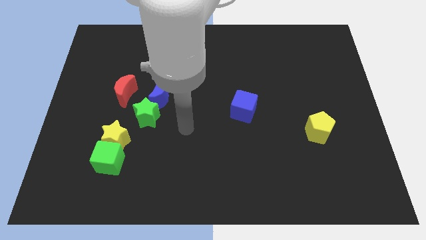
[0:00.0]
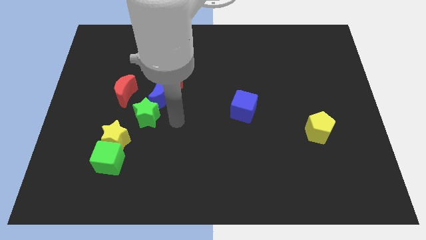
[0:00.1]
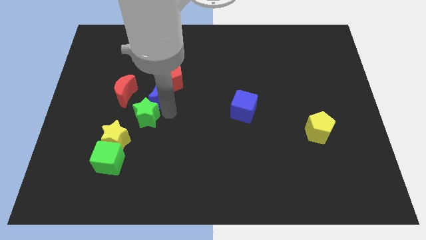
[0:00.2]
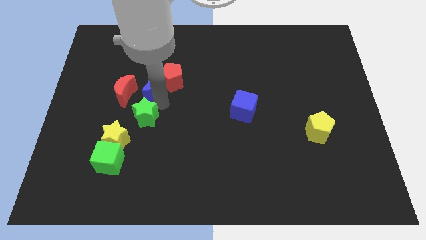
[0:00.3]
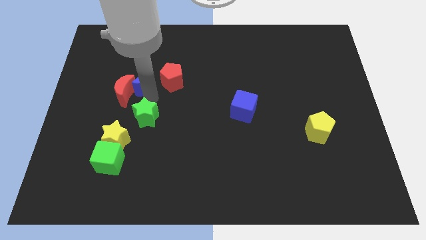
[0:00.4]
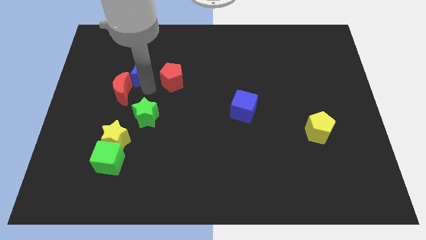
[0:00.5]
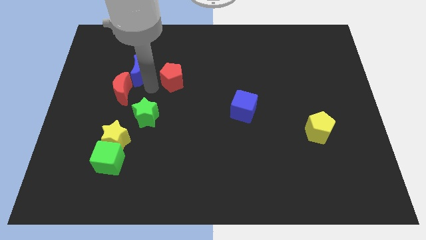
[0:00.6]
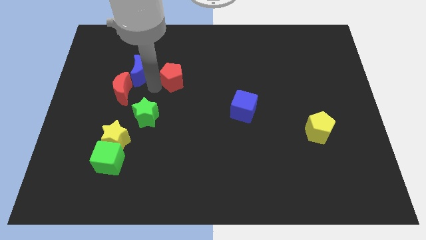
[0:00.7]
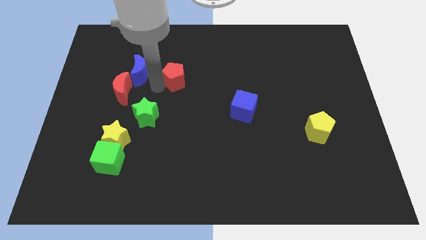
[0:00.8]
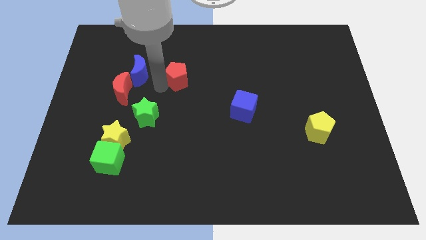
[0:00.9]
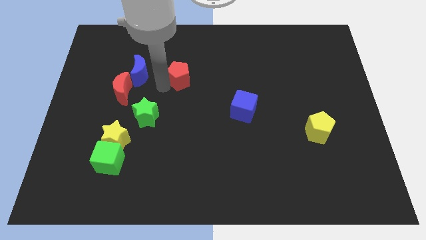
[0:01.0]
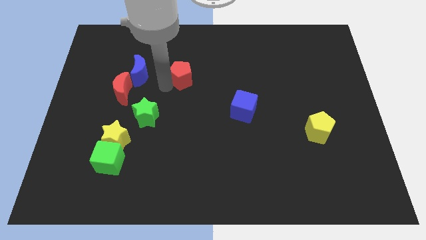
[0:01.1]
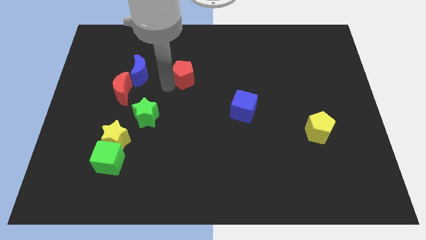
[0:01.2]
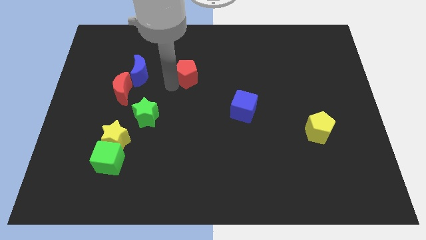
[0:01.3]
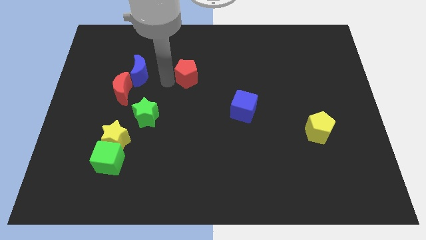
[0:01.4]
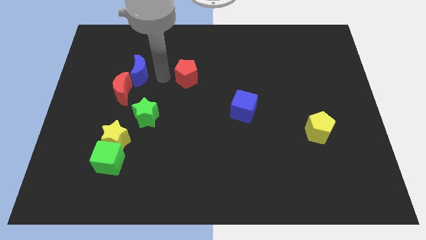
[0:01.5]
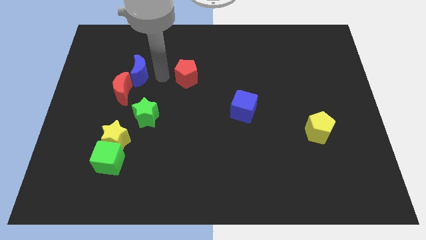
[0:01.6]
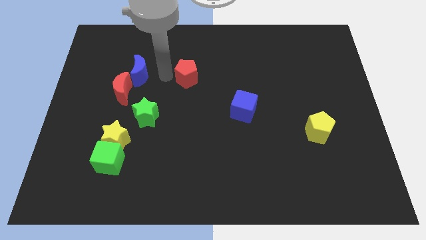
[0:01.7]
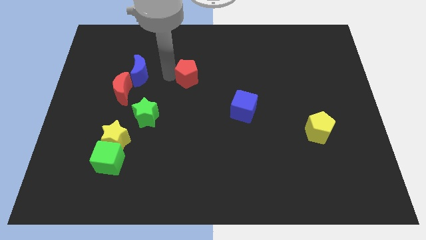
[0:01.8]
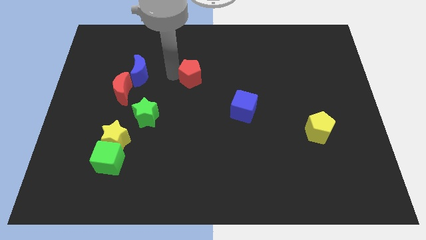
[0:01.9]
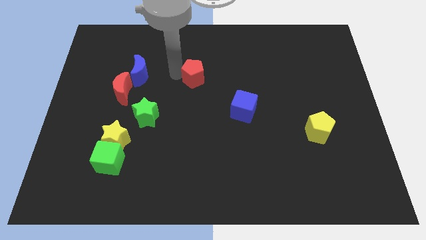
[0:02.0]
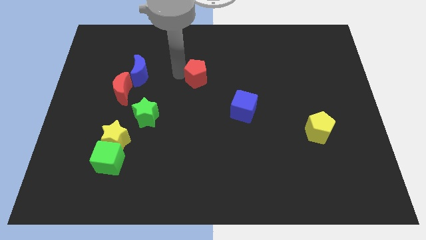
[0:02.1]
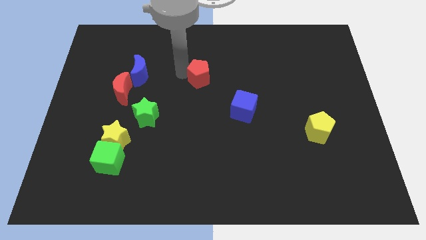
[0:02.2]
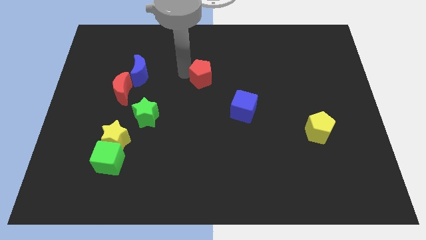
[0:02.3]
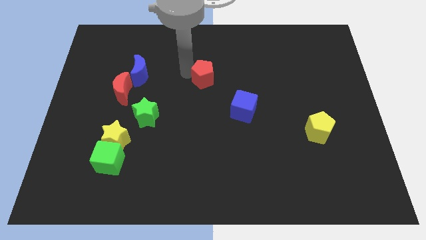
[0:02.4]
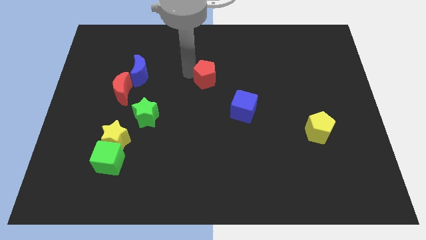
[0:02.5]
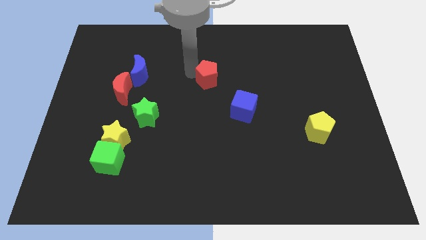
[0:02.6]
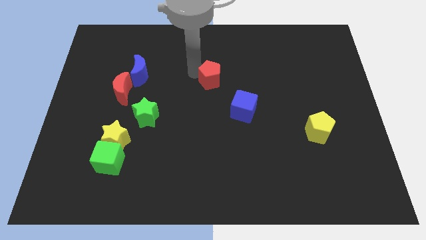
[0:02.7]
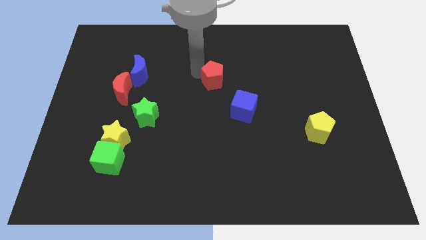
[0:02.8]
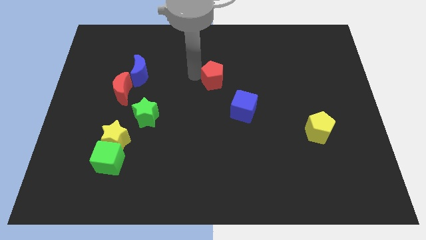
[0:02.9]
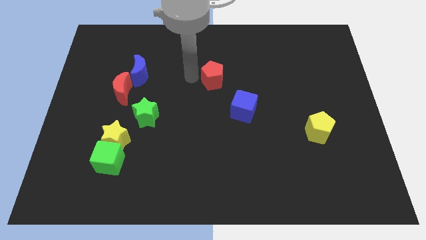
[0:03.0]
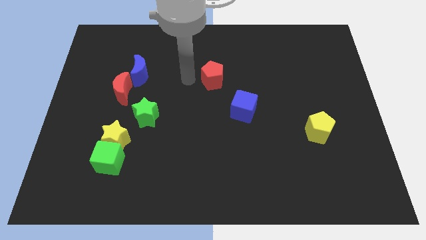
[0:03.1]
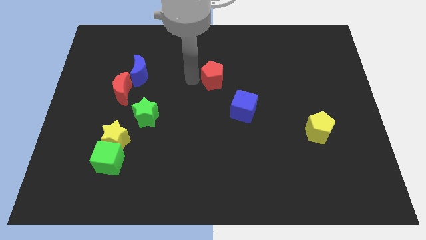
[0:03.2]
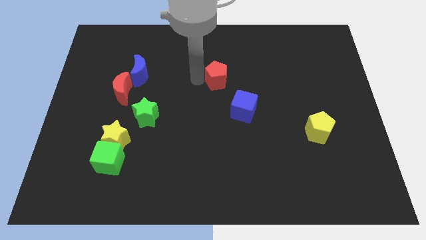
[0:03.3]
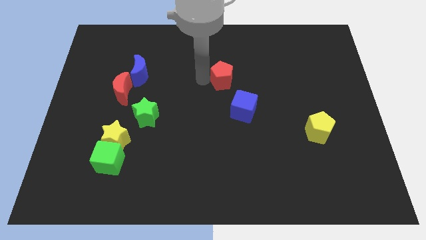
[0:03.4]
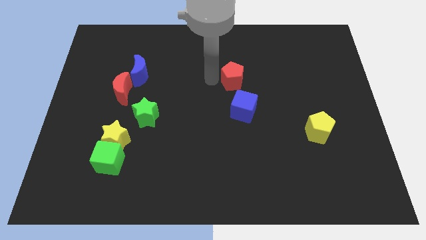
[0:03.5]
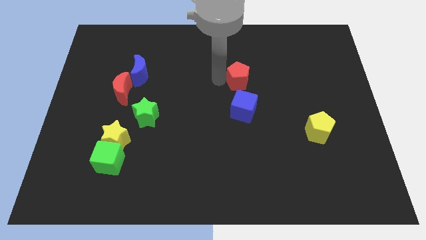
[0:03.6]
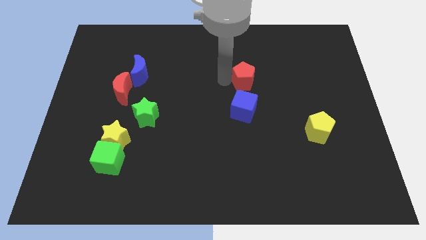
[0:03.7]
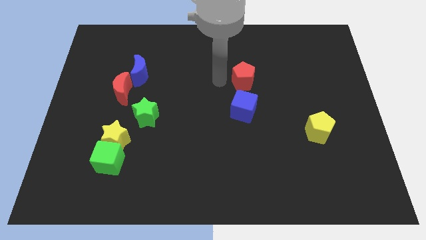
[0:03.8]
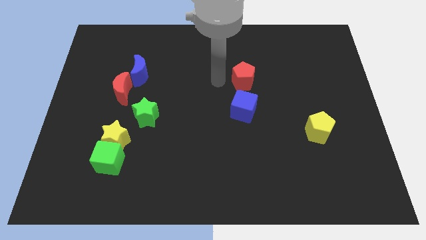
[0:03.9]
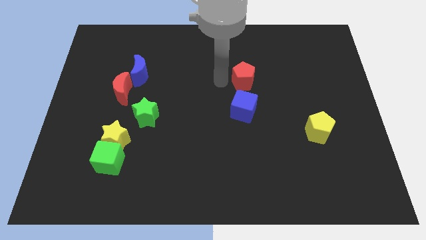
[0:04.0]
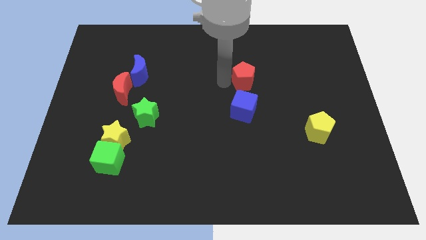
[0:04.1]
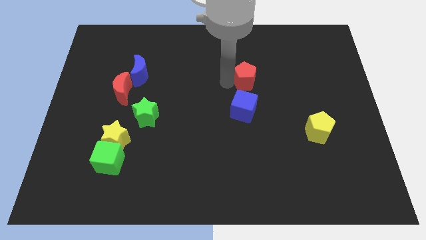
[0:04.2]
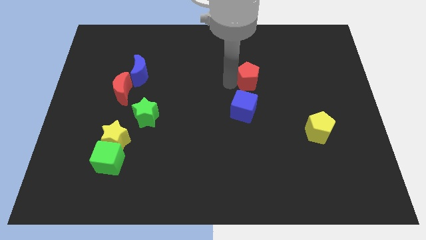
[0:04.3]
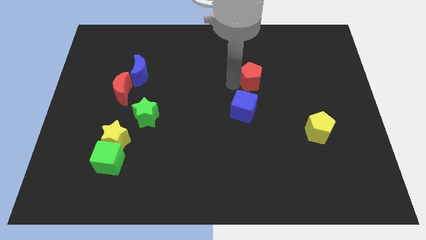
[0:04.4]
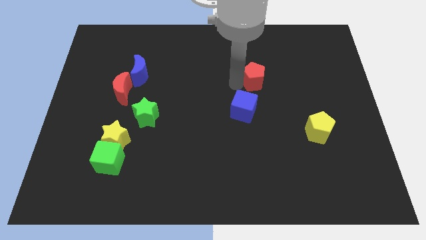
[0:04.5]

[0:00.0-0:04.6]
move the red pentagon to the right

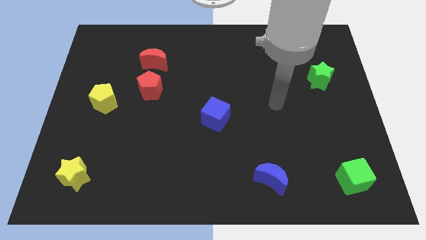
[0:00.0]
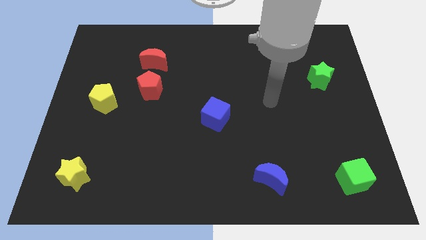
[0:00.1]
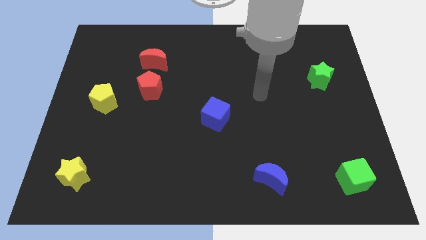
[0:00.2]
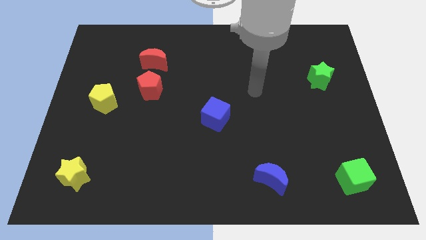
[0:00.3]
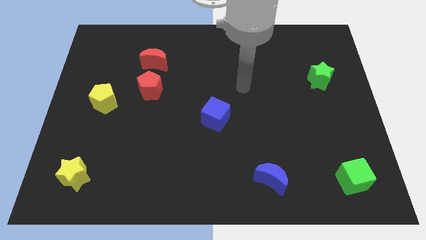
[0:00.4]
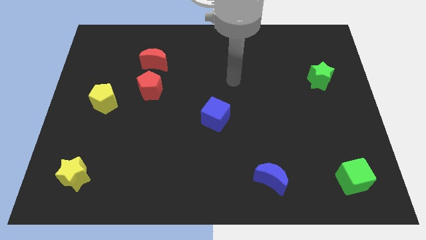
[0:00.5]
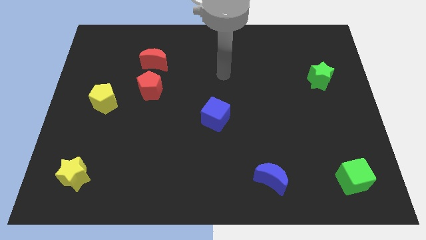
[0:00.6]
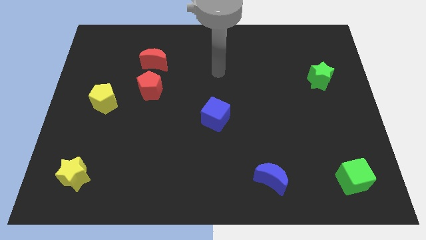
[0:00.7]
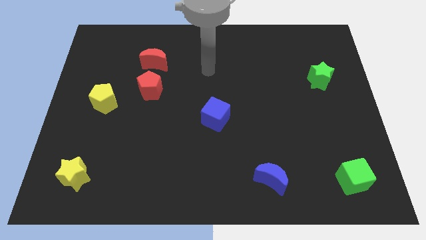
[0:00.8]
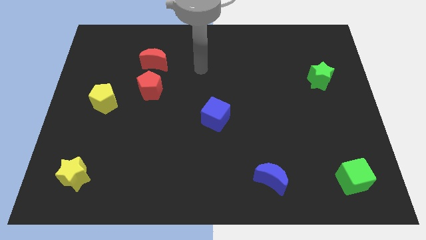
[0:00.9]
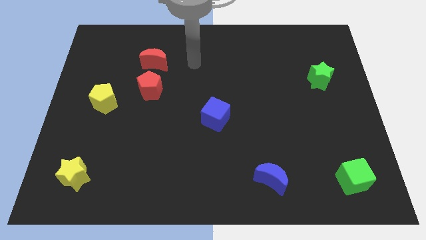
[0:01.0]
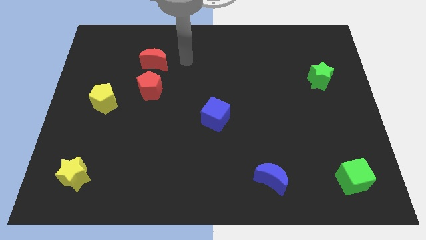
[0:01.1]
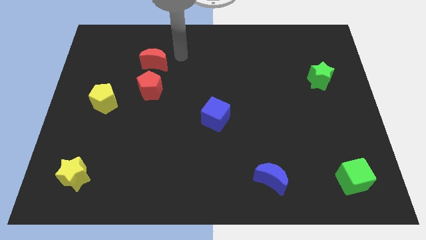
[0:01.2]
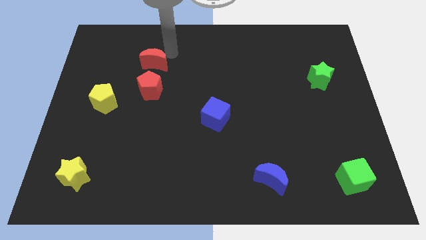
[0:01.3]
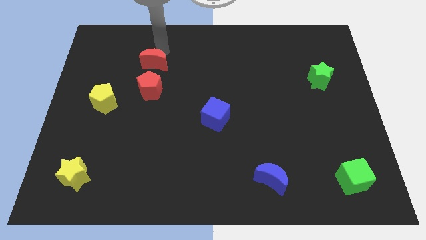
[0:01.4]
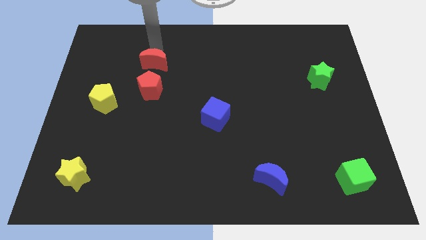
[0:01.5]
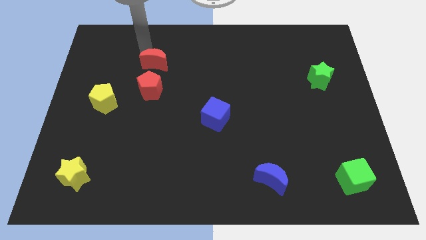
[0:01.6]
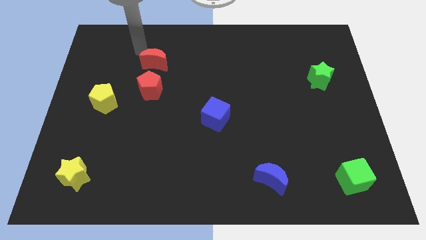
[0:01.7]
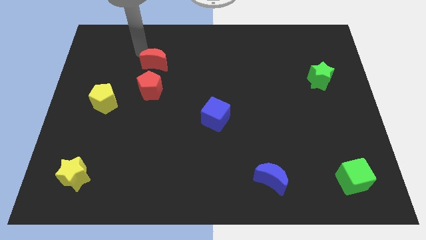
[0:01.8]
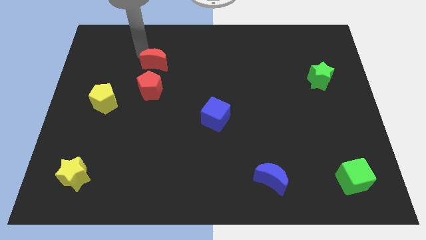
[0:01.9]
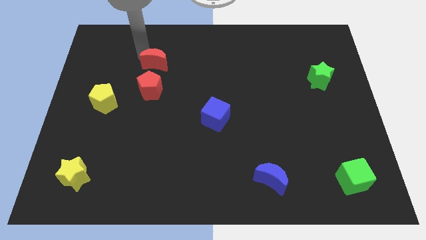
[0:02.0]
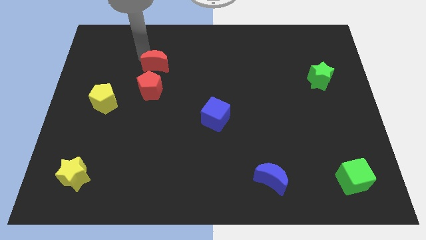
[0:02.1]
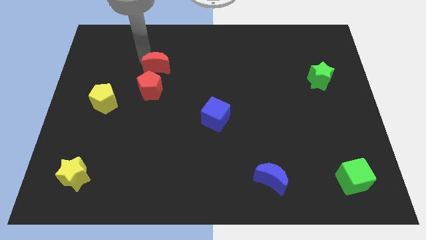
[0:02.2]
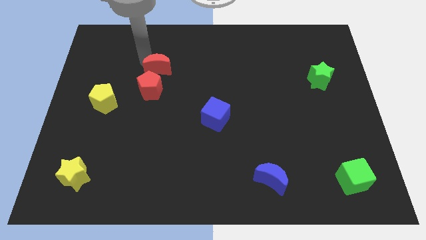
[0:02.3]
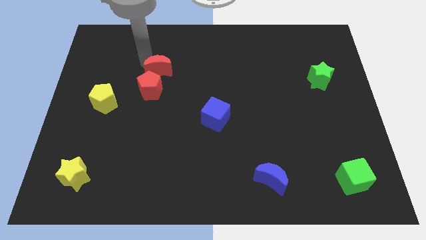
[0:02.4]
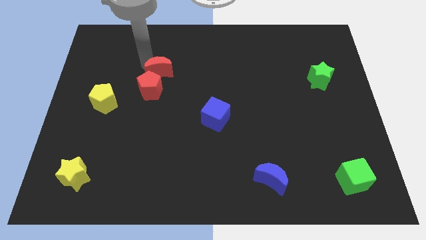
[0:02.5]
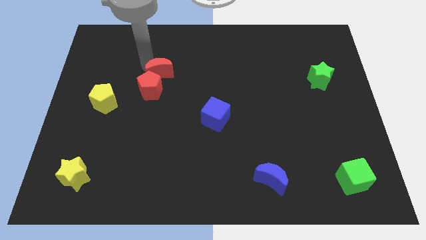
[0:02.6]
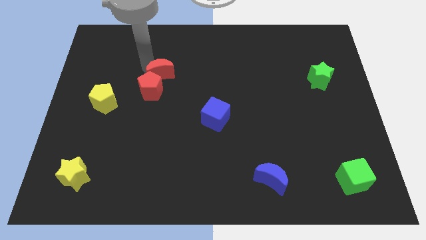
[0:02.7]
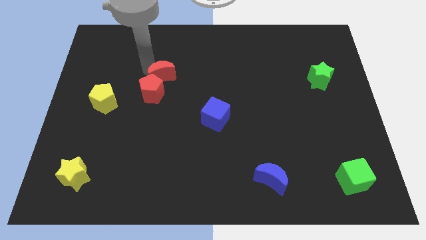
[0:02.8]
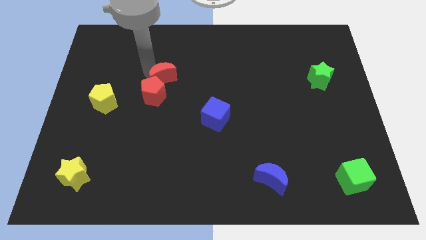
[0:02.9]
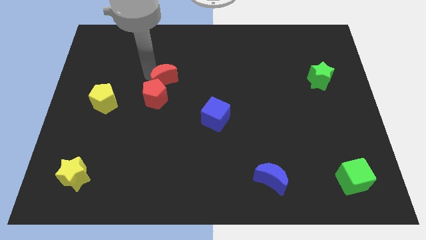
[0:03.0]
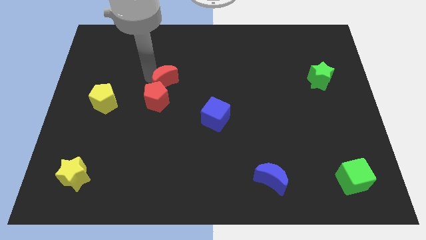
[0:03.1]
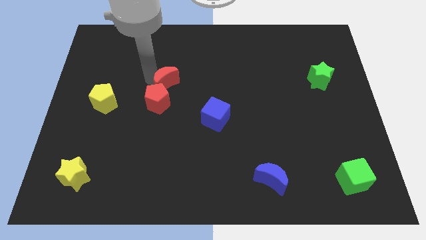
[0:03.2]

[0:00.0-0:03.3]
slide the red moon somewhat downwards and right diagonally
